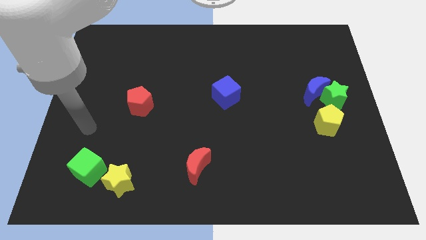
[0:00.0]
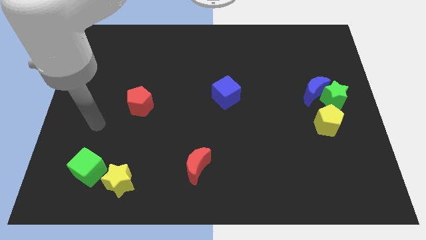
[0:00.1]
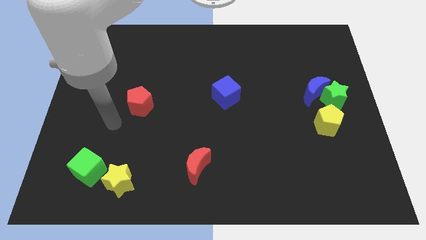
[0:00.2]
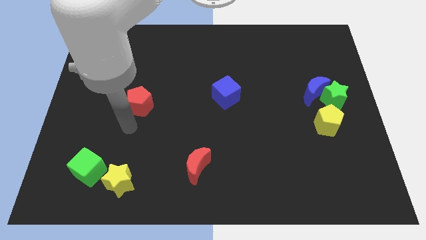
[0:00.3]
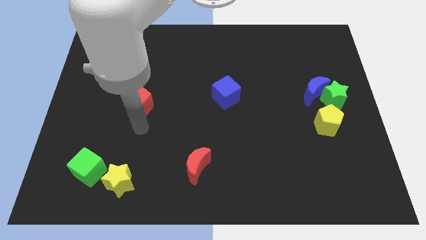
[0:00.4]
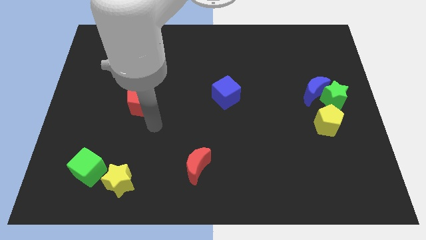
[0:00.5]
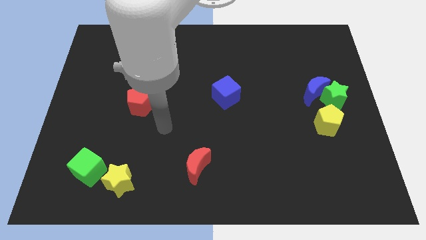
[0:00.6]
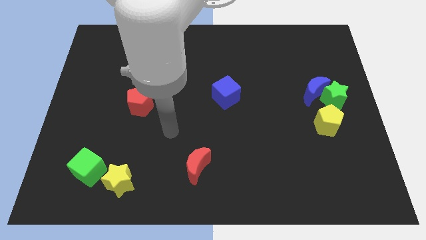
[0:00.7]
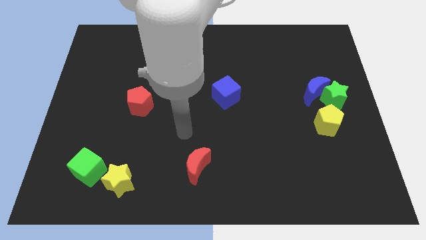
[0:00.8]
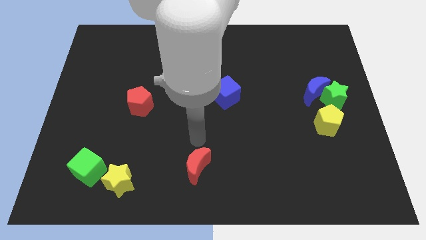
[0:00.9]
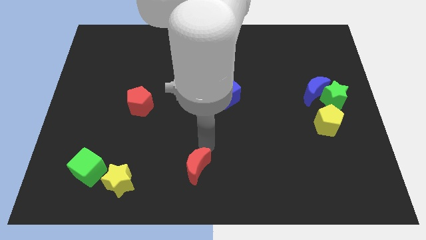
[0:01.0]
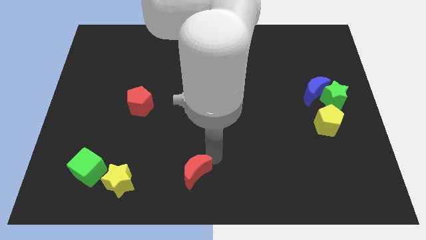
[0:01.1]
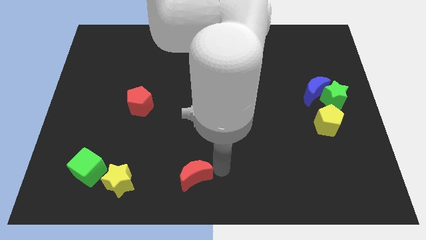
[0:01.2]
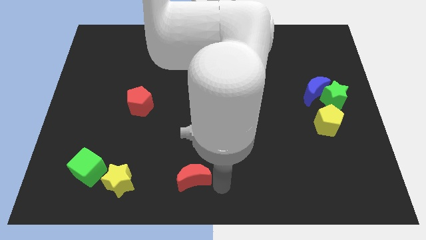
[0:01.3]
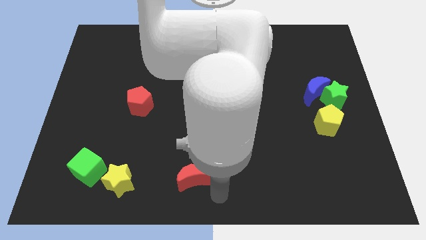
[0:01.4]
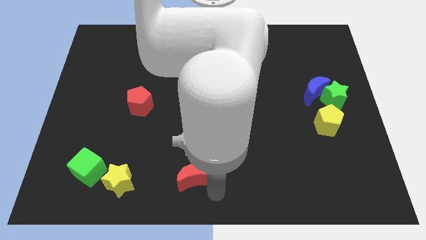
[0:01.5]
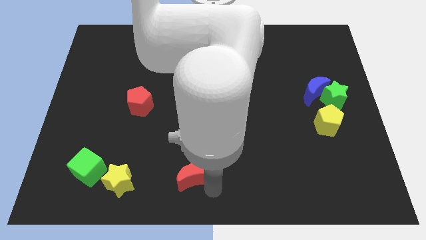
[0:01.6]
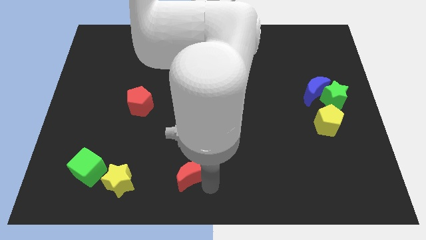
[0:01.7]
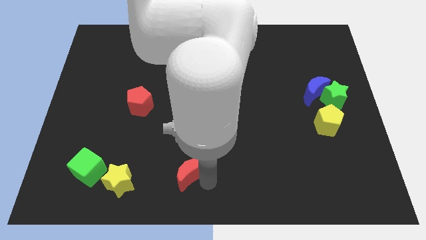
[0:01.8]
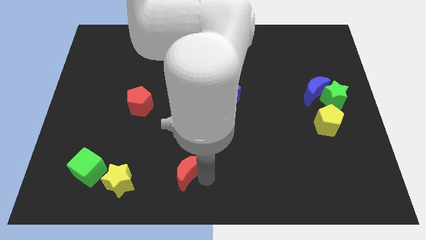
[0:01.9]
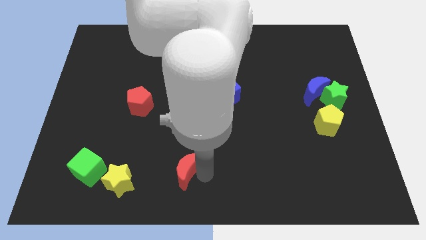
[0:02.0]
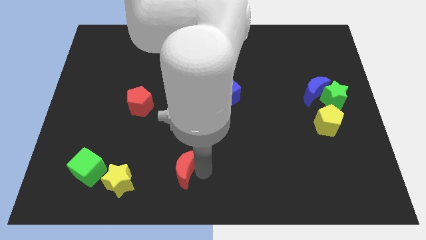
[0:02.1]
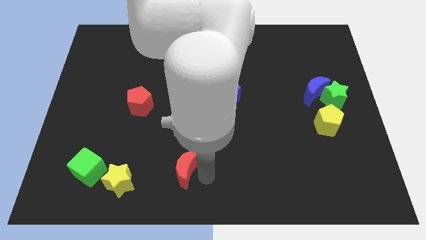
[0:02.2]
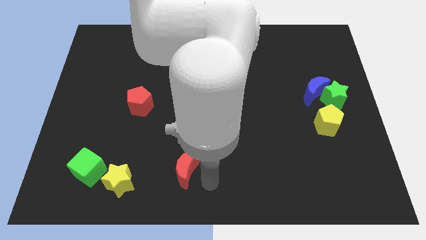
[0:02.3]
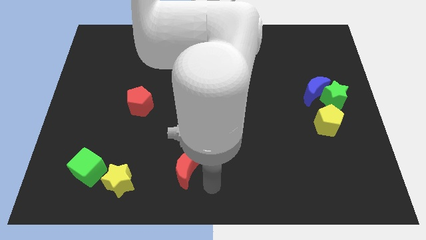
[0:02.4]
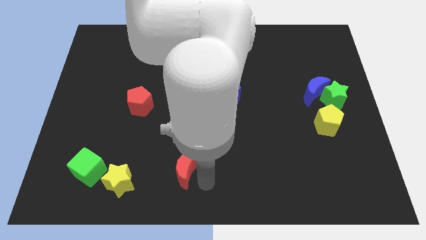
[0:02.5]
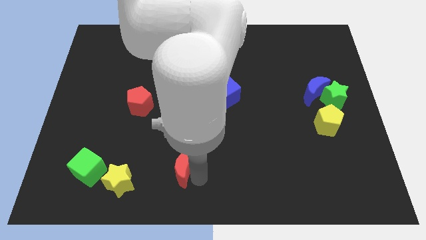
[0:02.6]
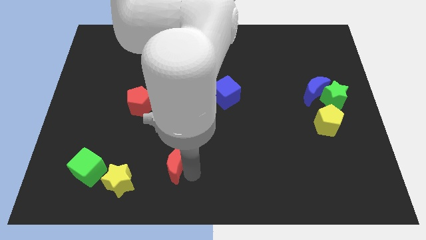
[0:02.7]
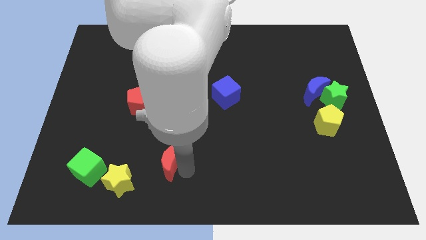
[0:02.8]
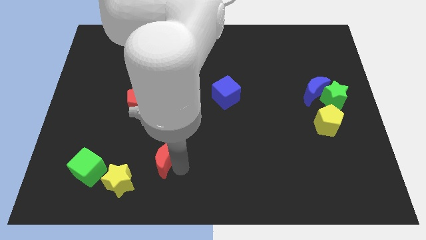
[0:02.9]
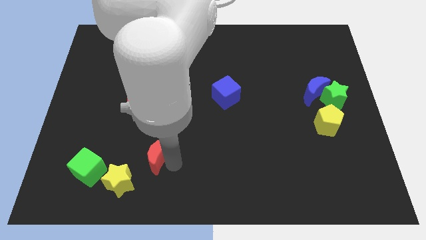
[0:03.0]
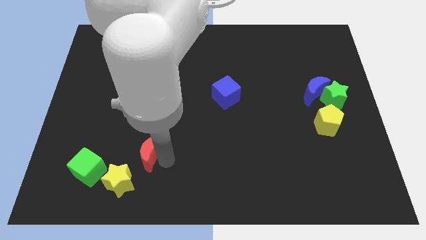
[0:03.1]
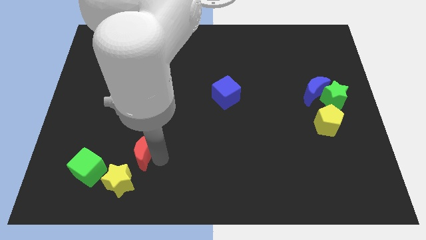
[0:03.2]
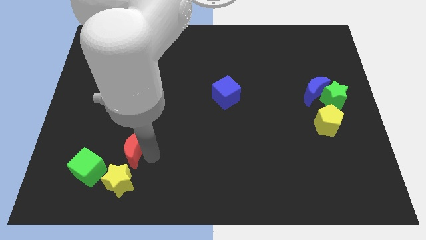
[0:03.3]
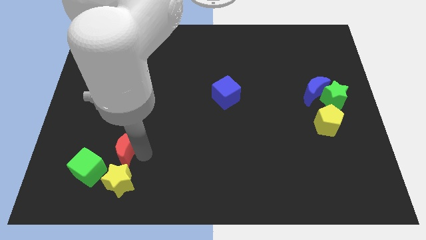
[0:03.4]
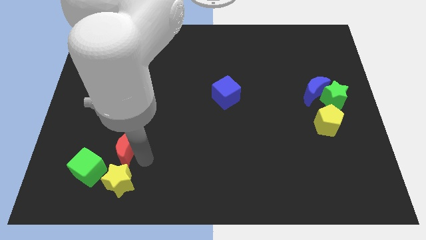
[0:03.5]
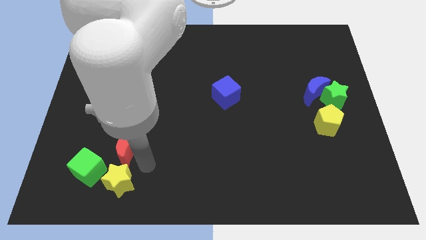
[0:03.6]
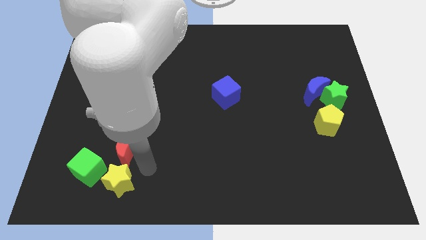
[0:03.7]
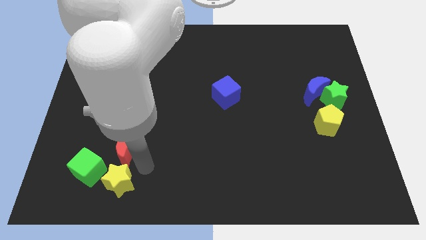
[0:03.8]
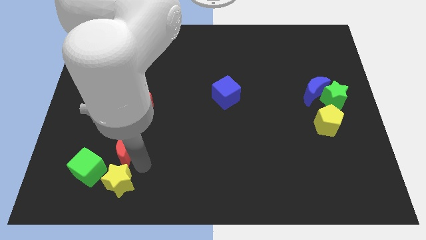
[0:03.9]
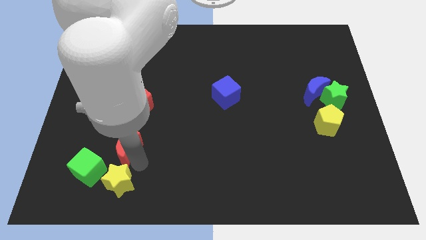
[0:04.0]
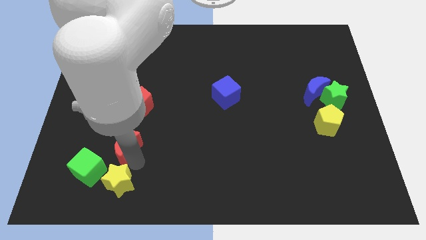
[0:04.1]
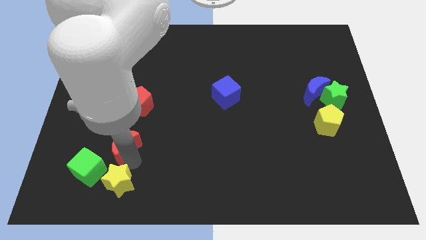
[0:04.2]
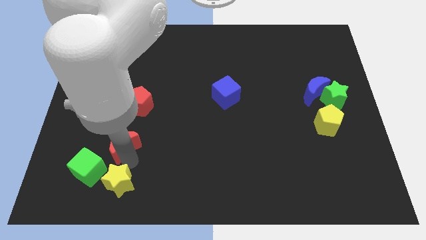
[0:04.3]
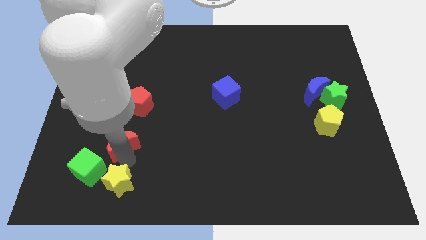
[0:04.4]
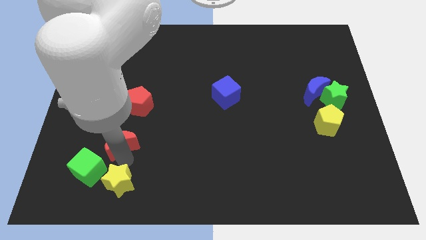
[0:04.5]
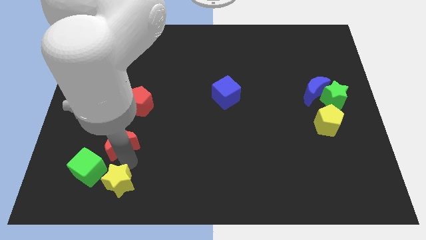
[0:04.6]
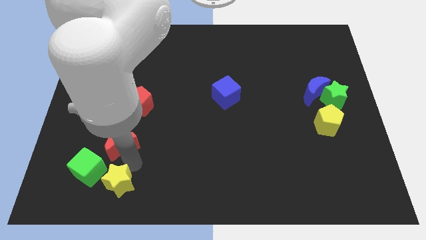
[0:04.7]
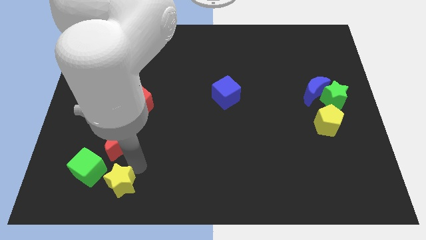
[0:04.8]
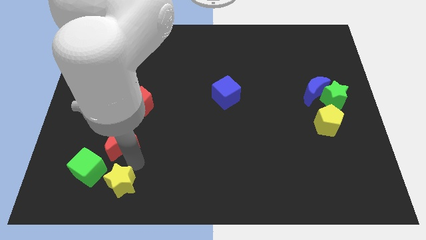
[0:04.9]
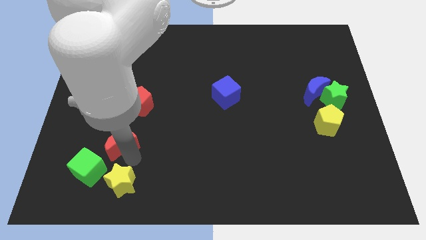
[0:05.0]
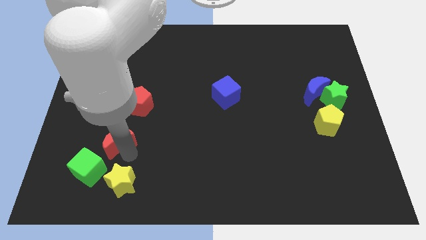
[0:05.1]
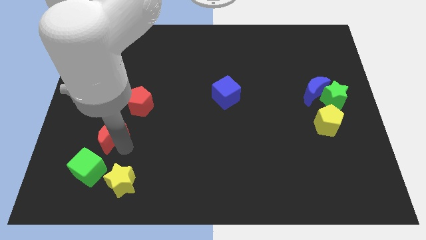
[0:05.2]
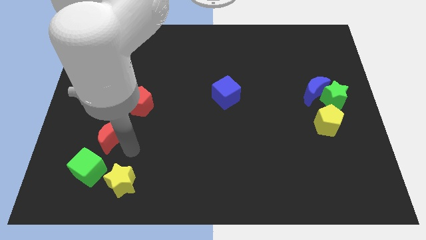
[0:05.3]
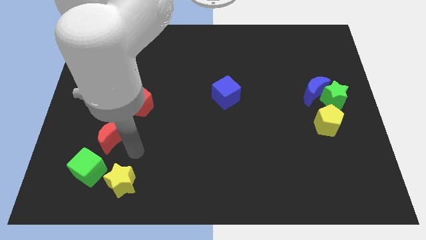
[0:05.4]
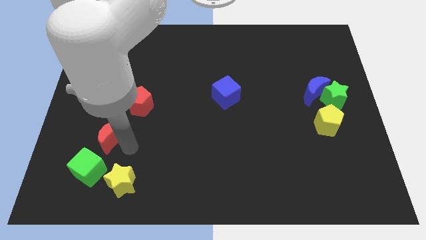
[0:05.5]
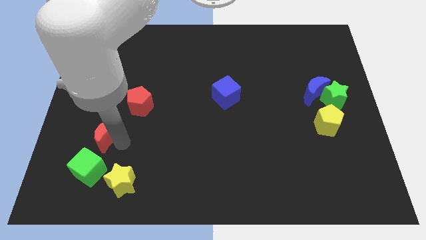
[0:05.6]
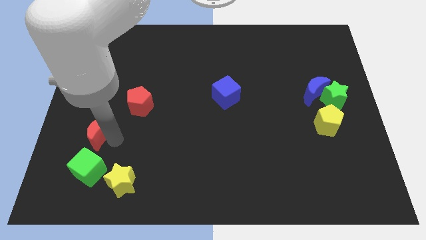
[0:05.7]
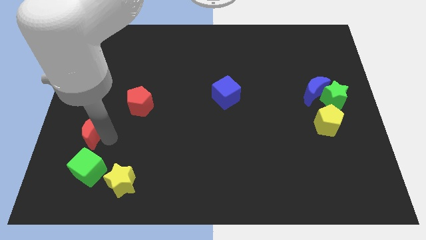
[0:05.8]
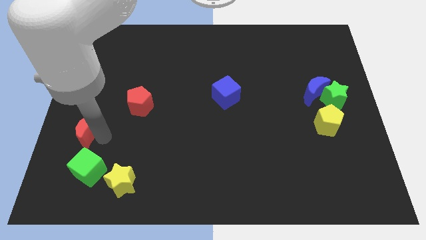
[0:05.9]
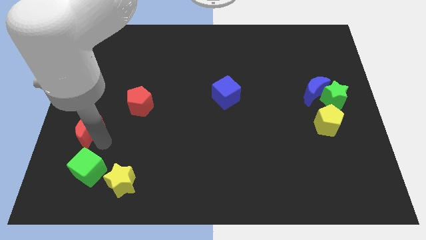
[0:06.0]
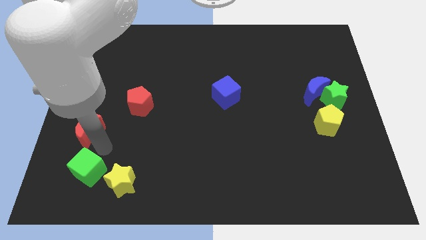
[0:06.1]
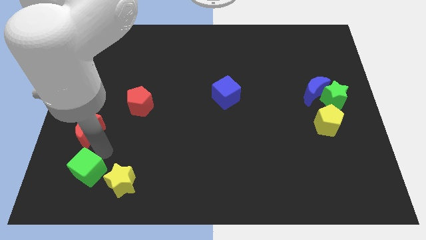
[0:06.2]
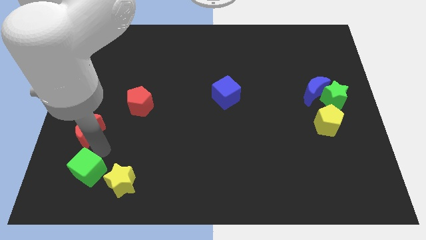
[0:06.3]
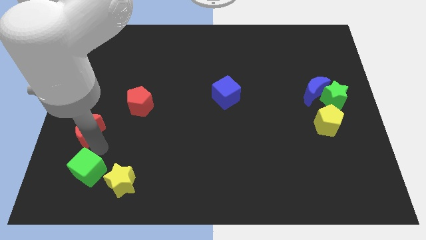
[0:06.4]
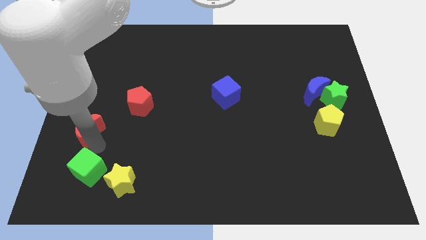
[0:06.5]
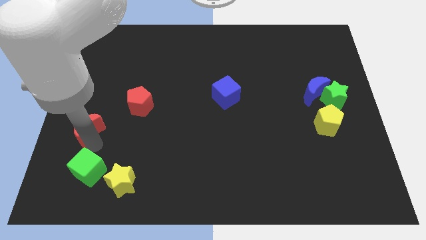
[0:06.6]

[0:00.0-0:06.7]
put the red moon to the left side

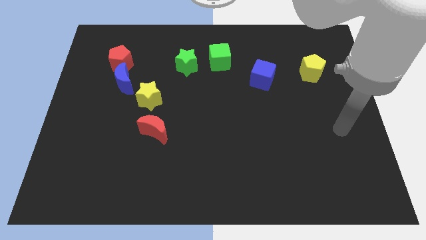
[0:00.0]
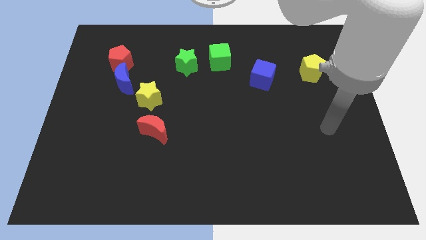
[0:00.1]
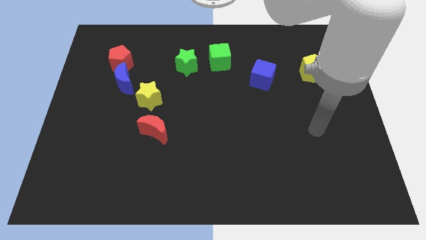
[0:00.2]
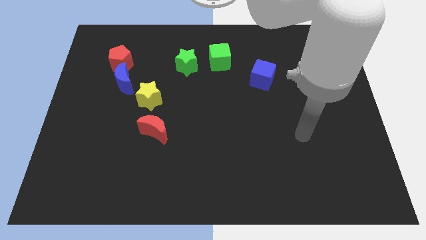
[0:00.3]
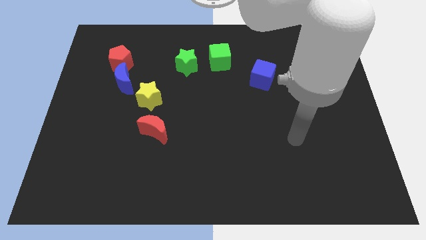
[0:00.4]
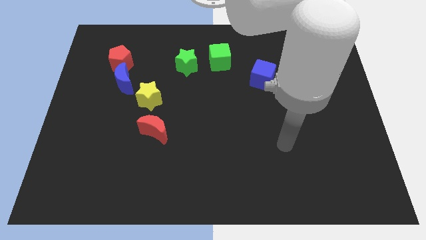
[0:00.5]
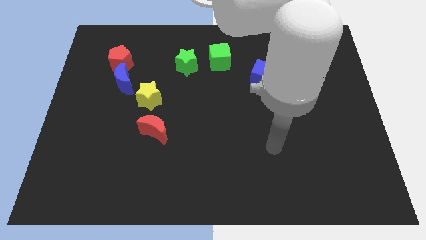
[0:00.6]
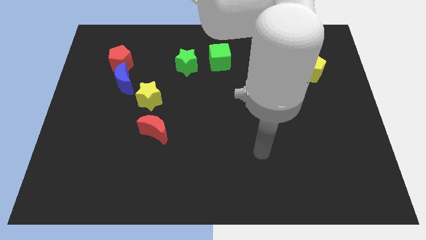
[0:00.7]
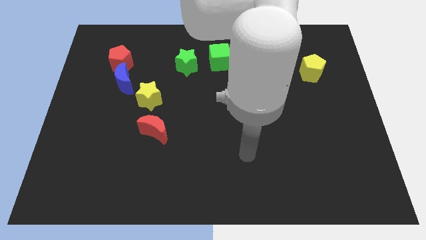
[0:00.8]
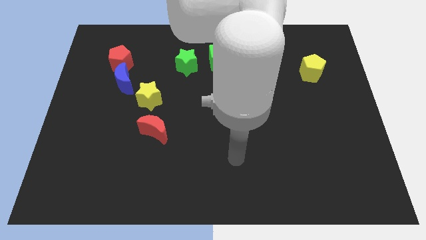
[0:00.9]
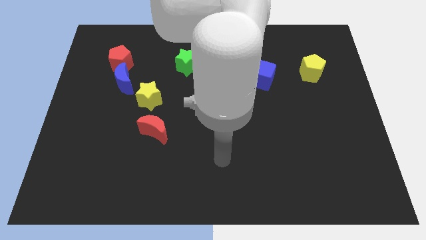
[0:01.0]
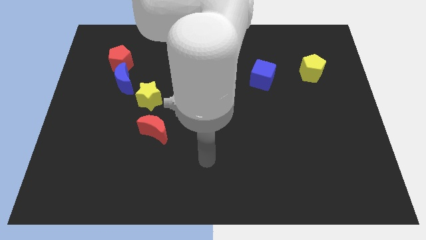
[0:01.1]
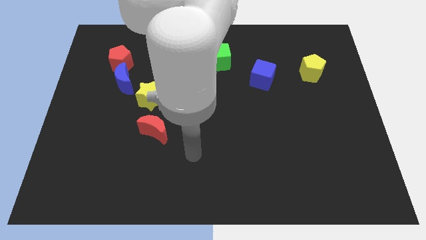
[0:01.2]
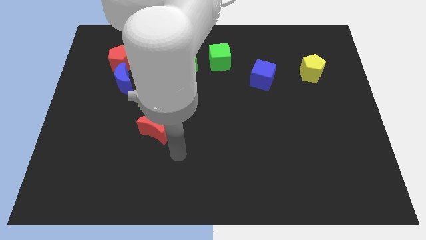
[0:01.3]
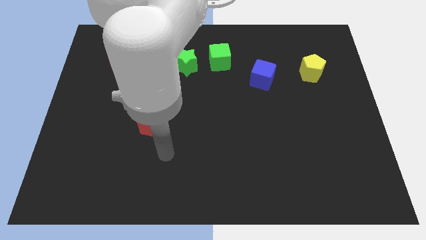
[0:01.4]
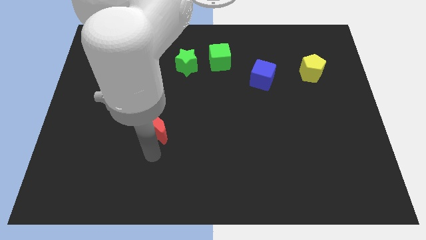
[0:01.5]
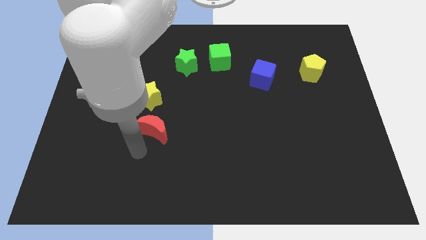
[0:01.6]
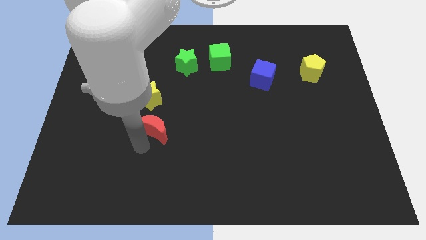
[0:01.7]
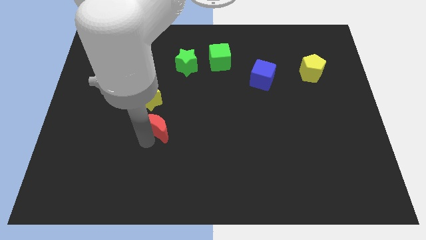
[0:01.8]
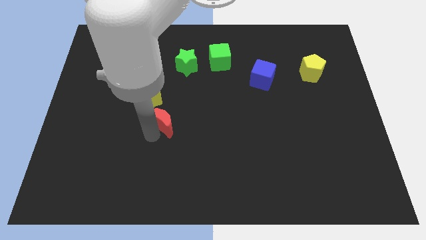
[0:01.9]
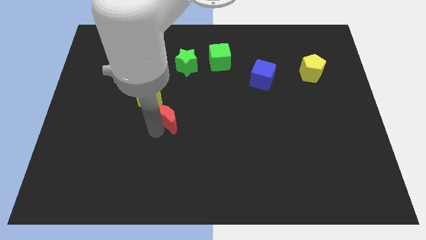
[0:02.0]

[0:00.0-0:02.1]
move the red moon to the center
